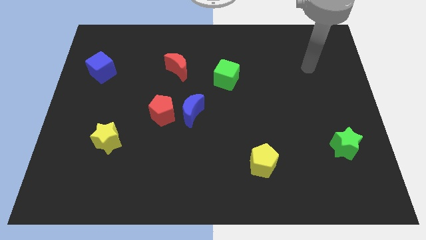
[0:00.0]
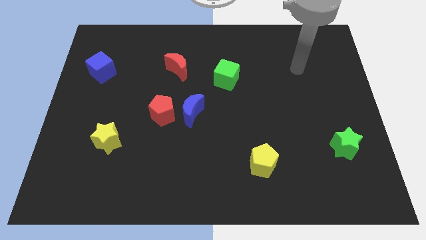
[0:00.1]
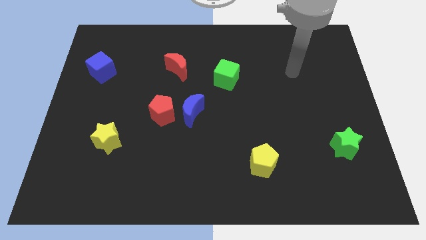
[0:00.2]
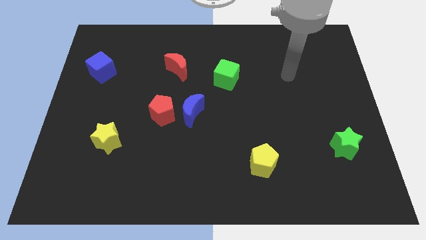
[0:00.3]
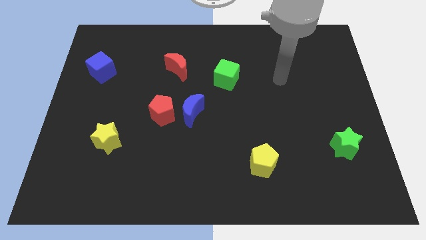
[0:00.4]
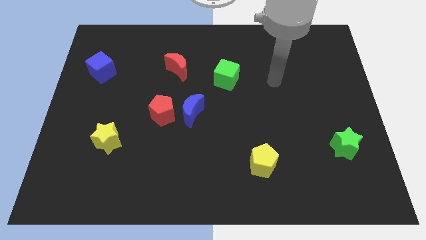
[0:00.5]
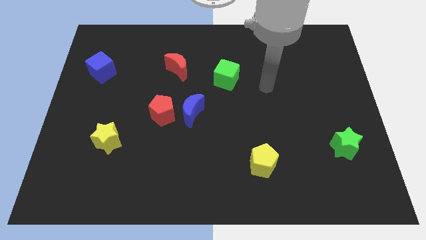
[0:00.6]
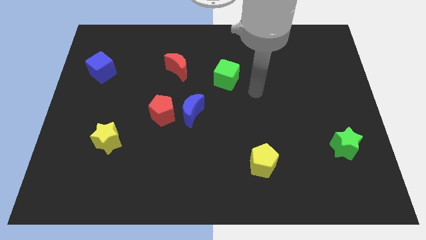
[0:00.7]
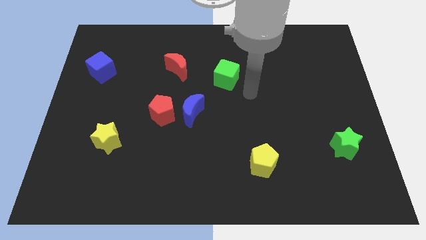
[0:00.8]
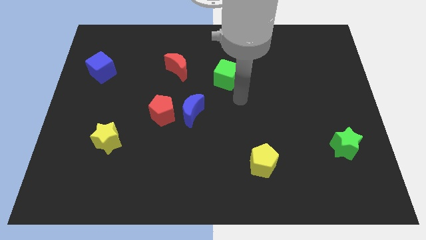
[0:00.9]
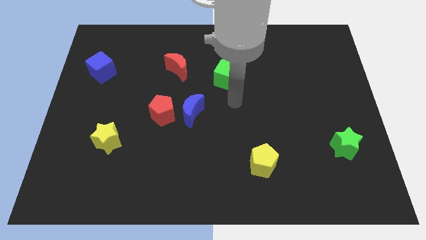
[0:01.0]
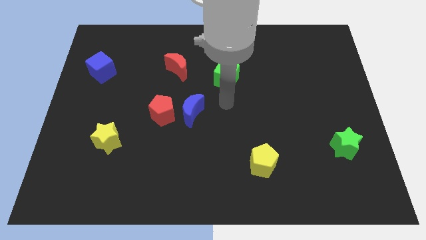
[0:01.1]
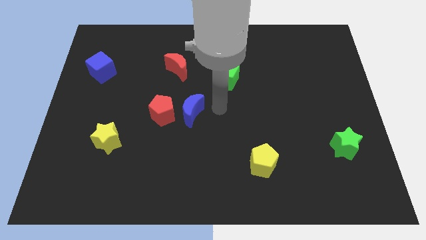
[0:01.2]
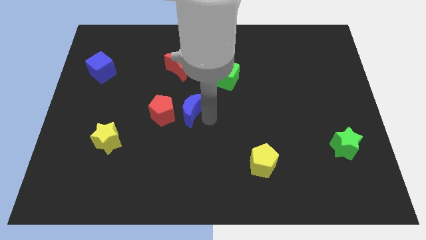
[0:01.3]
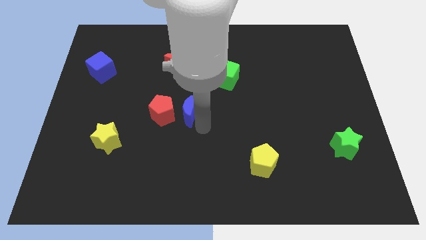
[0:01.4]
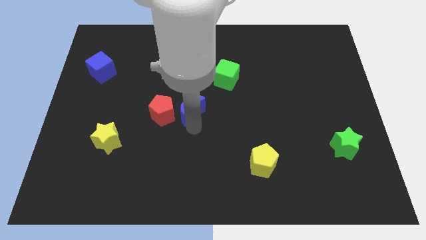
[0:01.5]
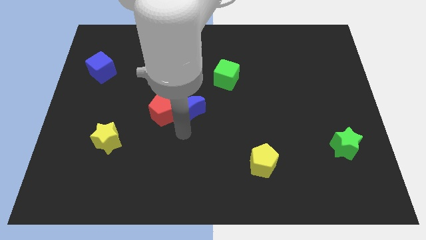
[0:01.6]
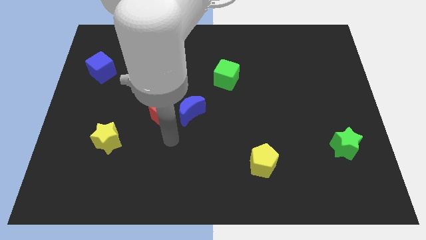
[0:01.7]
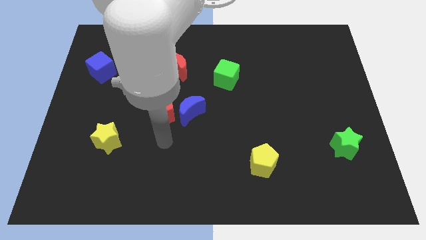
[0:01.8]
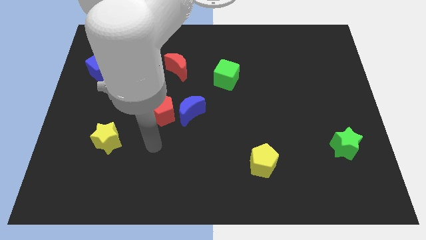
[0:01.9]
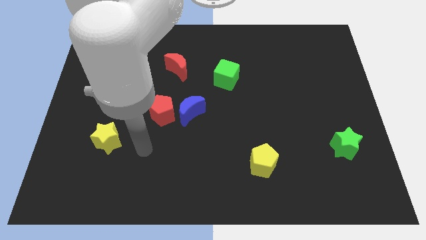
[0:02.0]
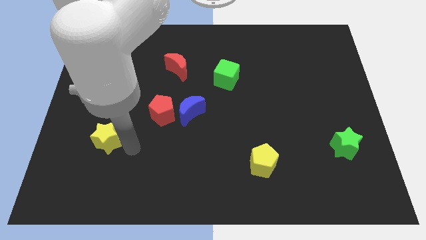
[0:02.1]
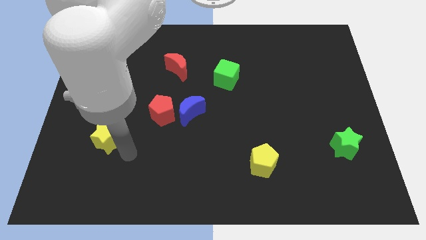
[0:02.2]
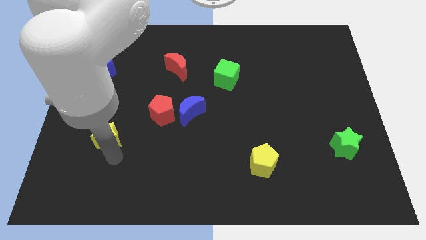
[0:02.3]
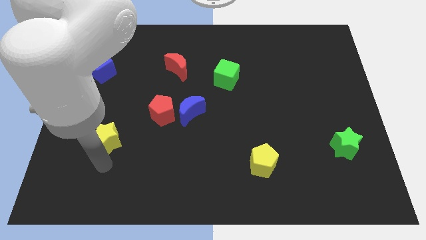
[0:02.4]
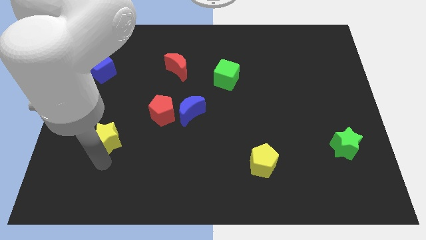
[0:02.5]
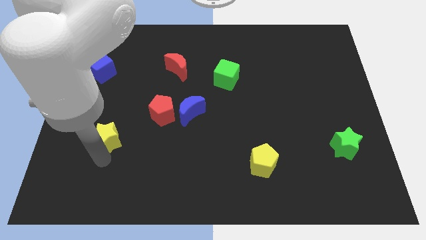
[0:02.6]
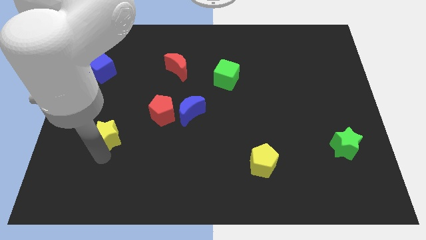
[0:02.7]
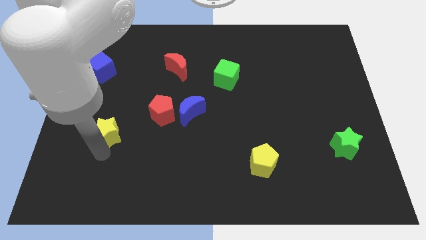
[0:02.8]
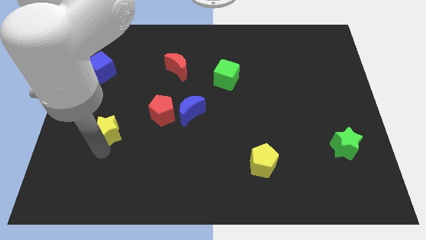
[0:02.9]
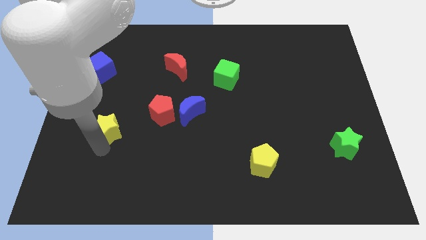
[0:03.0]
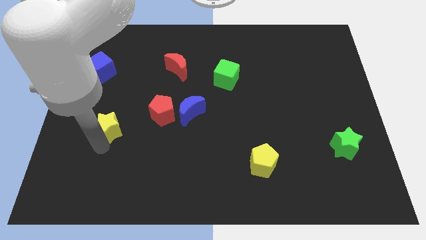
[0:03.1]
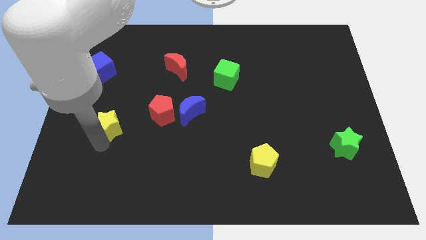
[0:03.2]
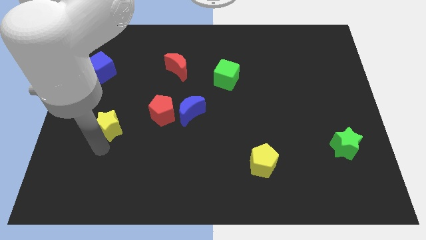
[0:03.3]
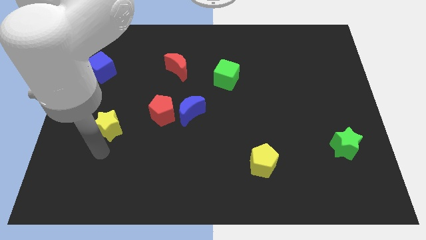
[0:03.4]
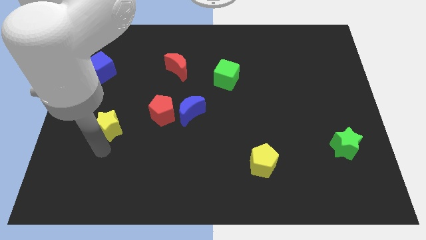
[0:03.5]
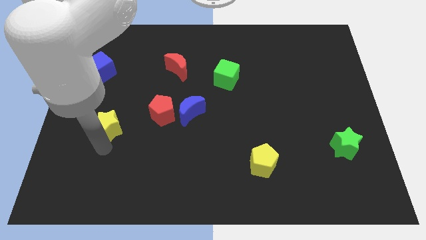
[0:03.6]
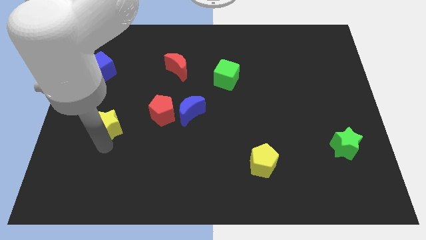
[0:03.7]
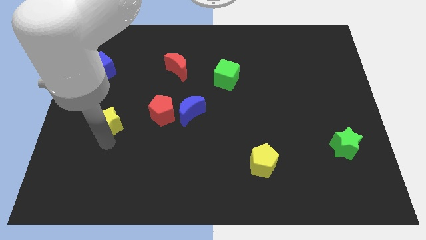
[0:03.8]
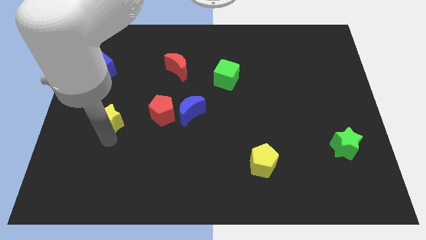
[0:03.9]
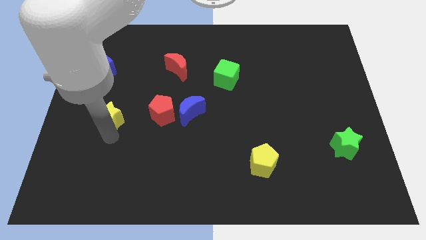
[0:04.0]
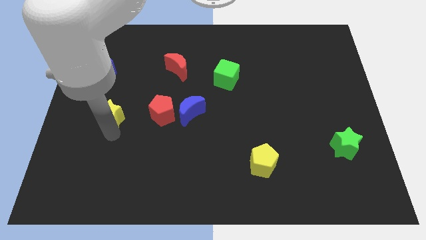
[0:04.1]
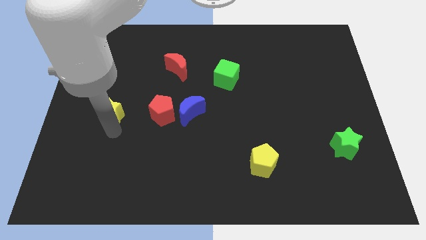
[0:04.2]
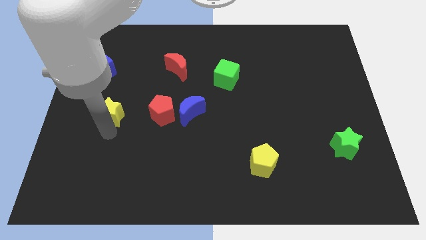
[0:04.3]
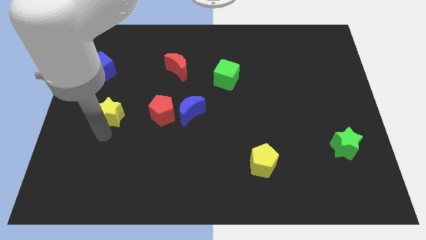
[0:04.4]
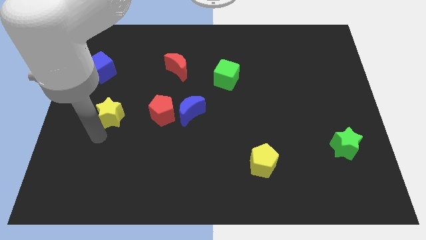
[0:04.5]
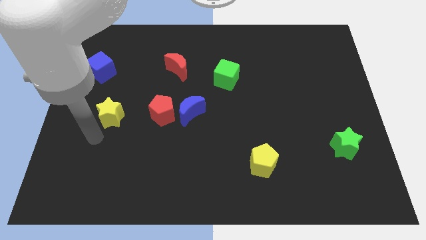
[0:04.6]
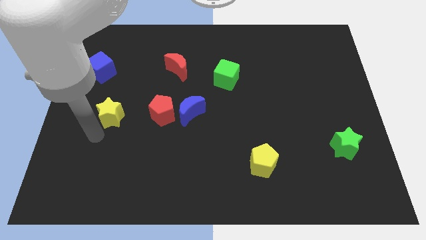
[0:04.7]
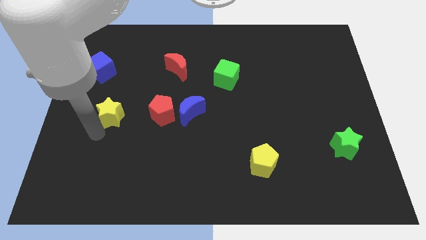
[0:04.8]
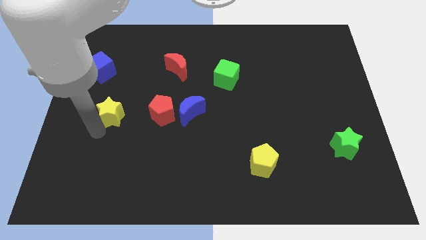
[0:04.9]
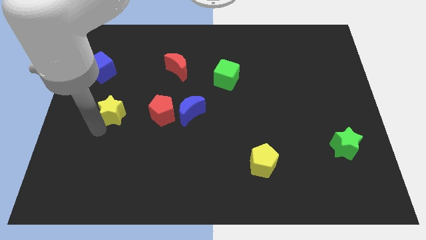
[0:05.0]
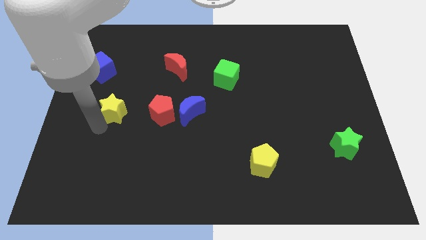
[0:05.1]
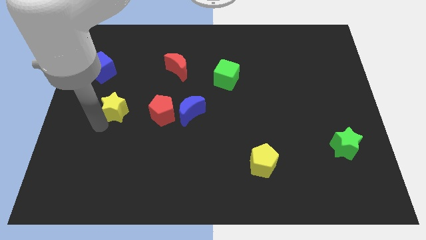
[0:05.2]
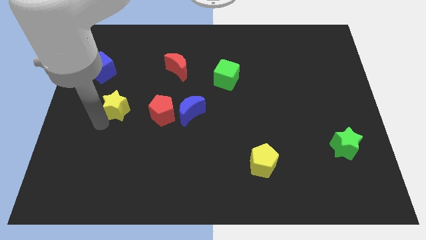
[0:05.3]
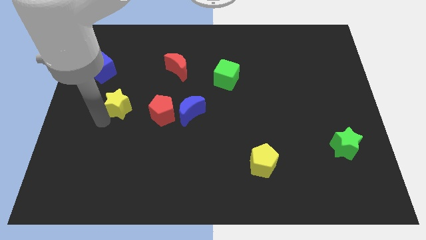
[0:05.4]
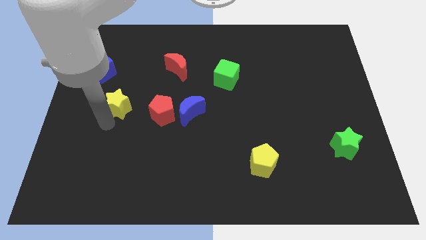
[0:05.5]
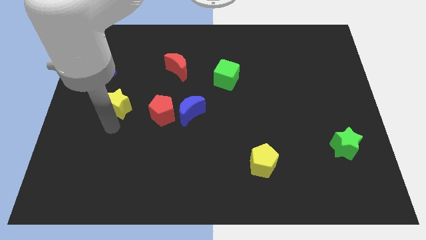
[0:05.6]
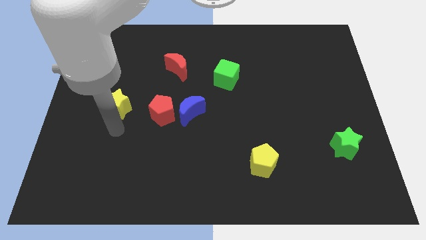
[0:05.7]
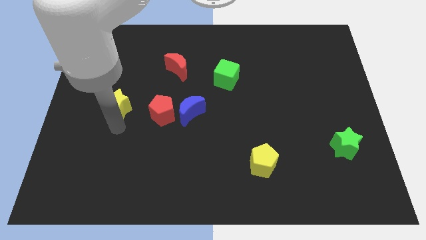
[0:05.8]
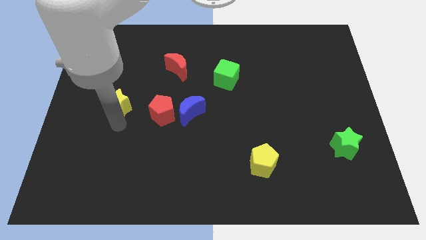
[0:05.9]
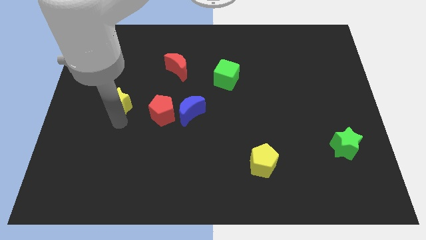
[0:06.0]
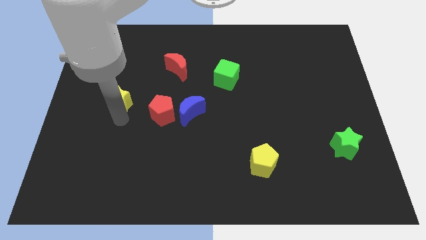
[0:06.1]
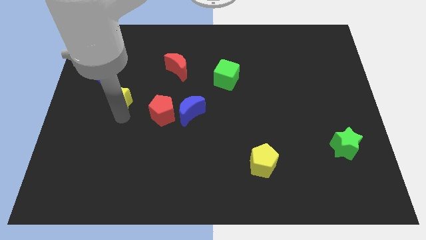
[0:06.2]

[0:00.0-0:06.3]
slide the yellow star to the bottom right of the blue cube

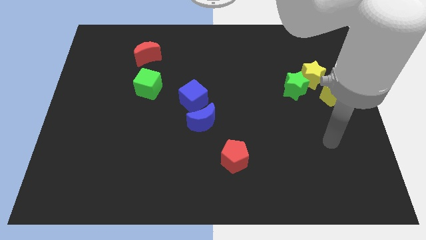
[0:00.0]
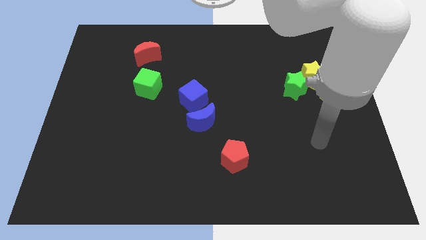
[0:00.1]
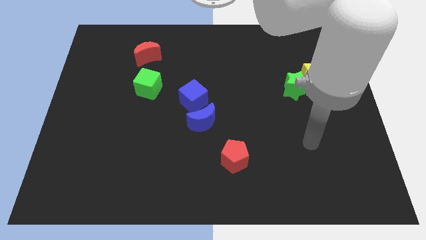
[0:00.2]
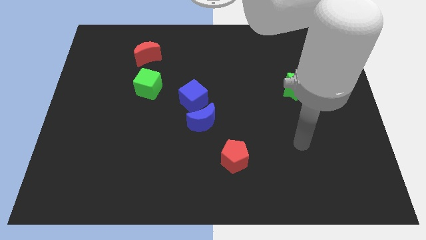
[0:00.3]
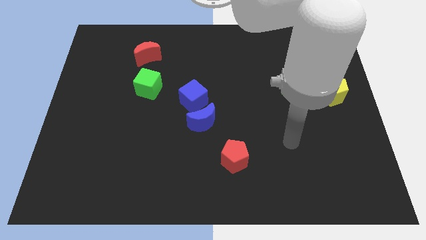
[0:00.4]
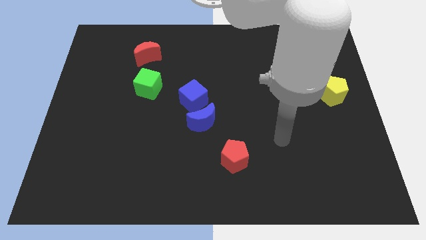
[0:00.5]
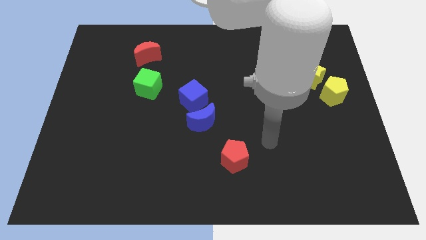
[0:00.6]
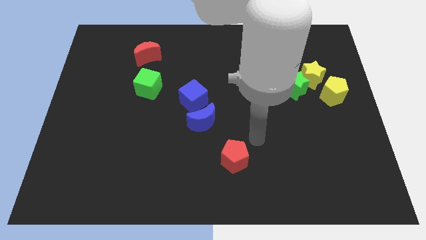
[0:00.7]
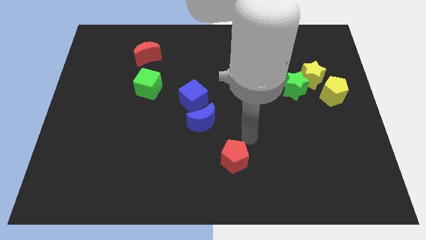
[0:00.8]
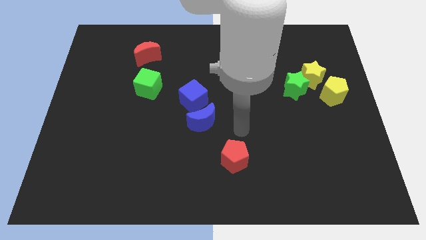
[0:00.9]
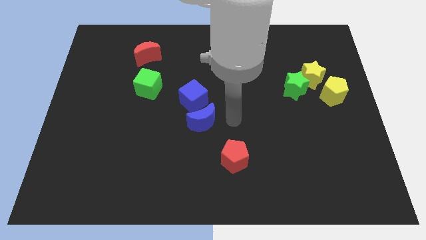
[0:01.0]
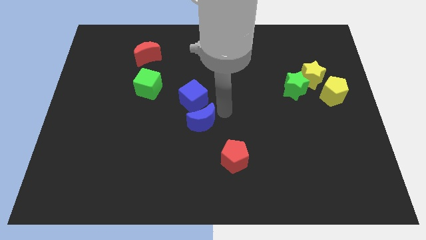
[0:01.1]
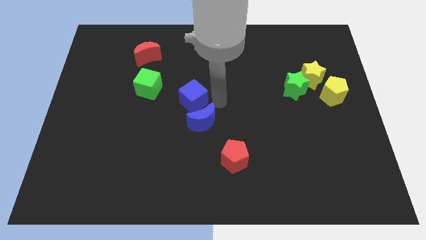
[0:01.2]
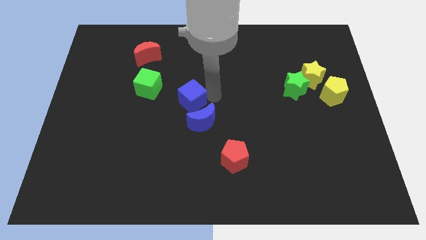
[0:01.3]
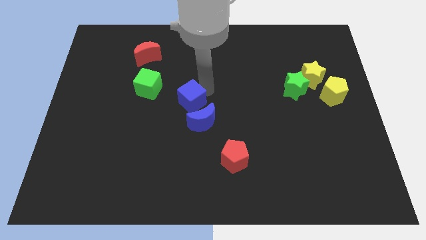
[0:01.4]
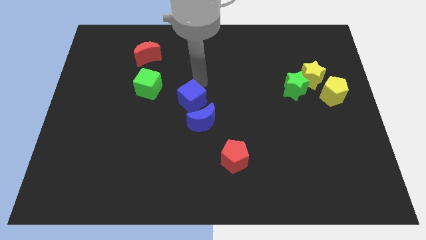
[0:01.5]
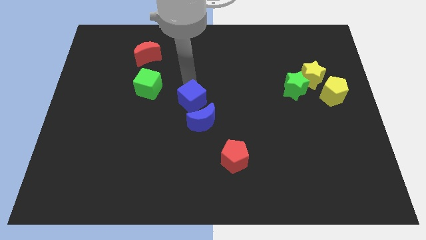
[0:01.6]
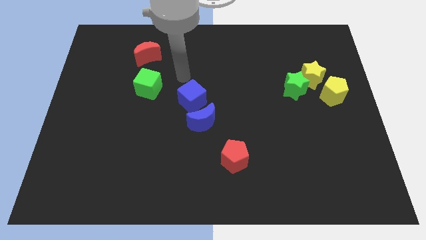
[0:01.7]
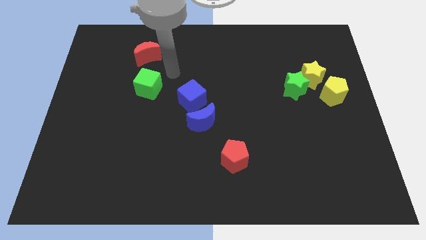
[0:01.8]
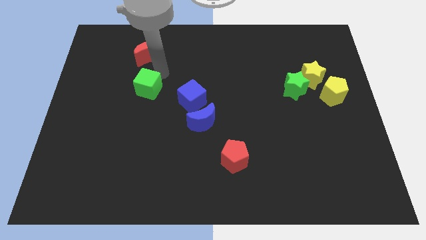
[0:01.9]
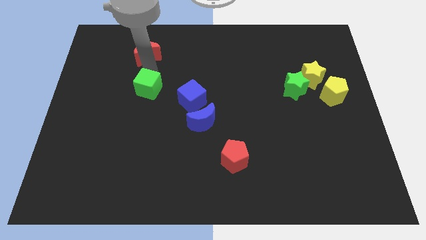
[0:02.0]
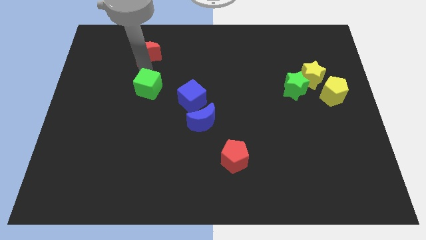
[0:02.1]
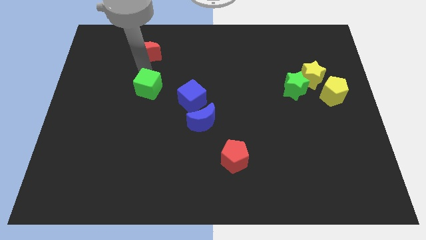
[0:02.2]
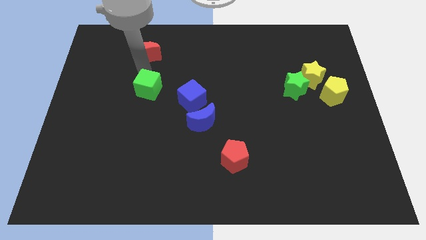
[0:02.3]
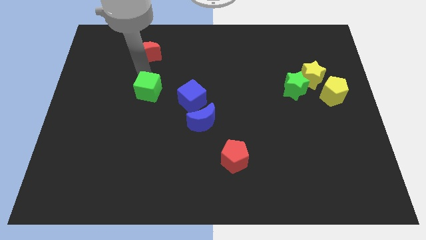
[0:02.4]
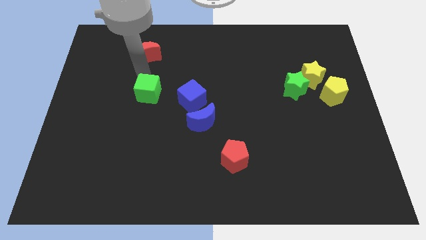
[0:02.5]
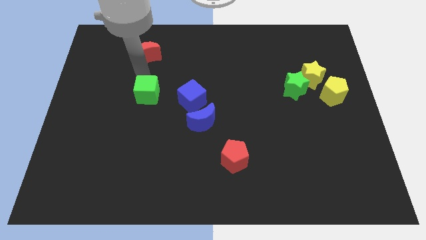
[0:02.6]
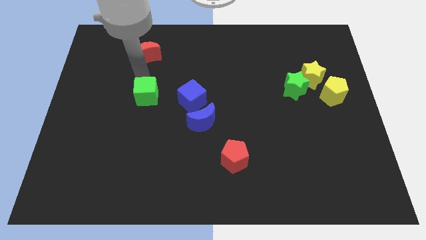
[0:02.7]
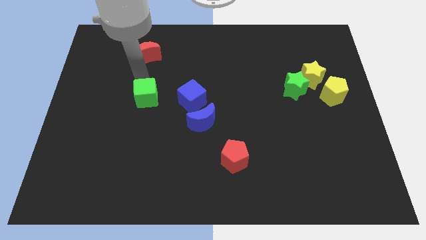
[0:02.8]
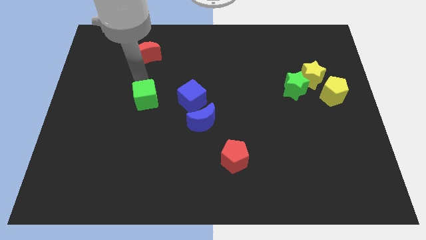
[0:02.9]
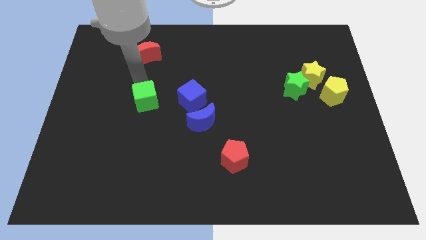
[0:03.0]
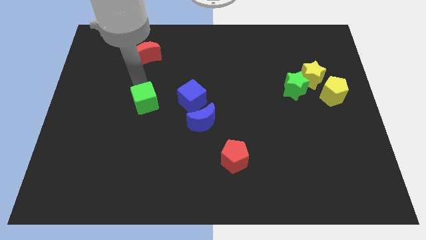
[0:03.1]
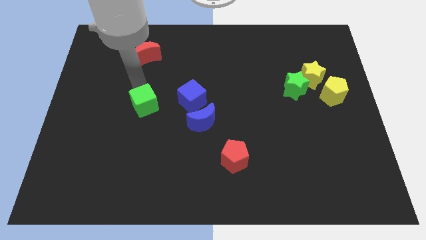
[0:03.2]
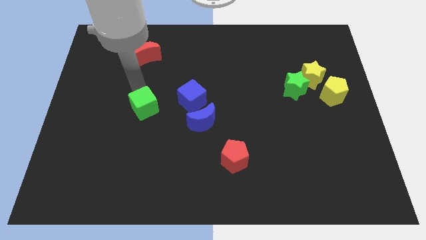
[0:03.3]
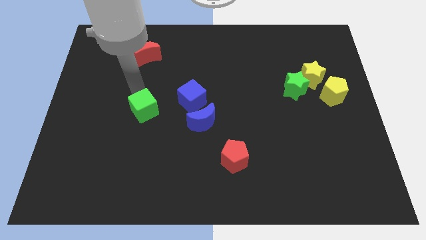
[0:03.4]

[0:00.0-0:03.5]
push the green cube to the left of the blue moon
